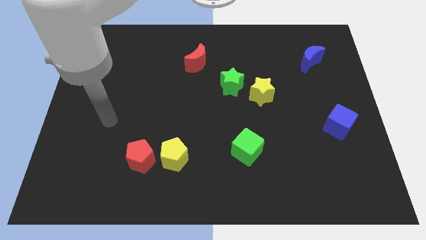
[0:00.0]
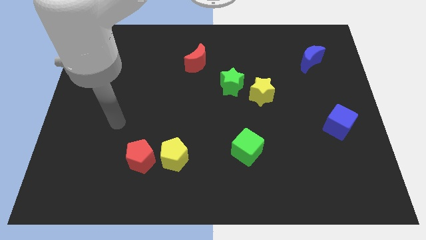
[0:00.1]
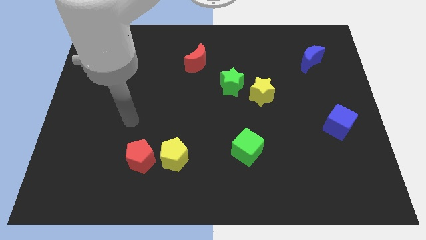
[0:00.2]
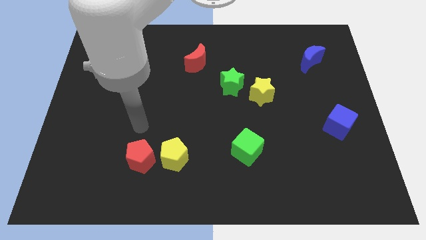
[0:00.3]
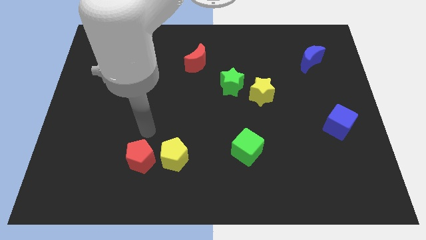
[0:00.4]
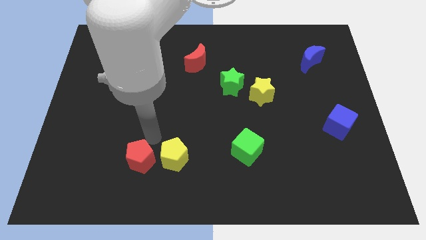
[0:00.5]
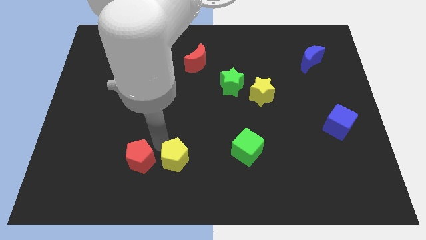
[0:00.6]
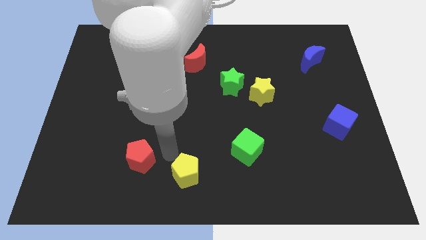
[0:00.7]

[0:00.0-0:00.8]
move the red pentagon away from the yellow pentagon

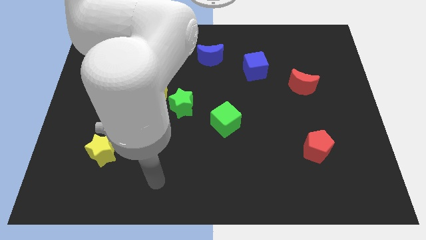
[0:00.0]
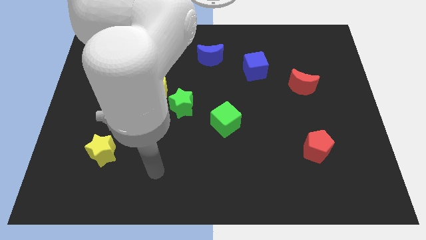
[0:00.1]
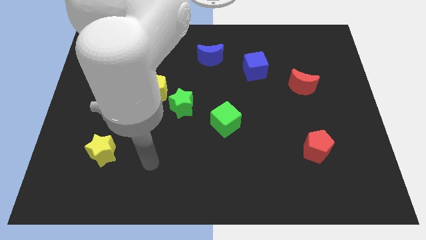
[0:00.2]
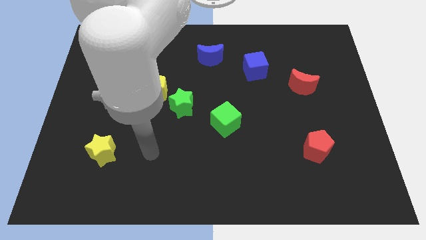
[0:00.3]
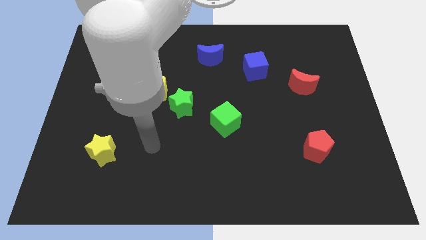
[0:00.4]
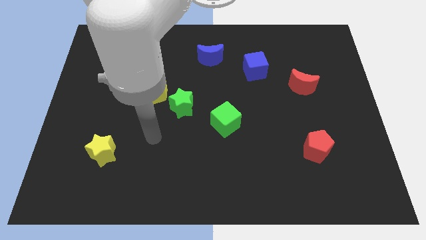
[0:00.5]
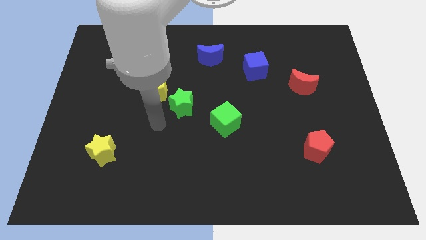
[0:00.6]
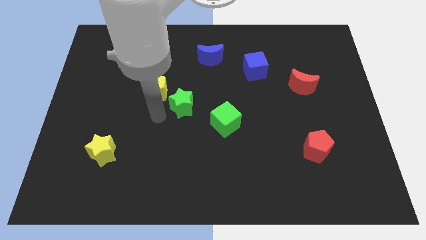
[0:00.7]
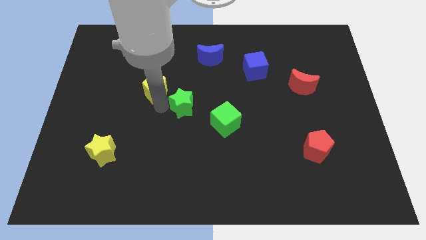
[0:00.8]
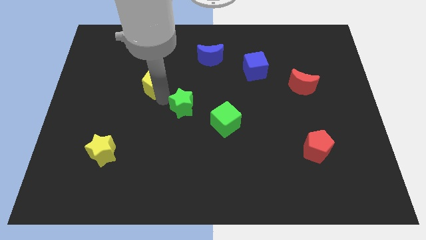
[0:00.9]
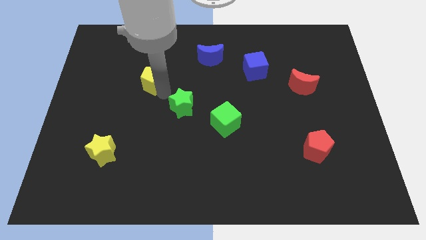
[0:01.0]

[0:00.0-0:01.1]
pull the green star apart from the yellow pentagon

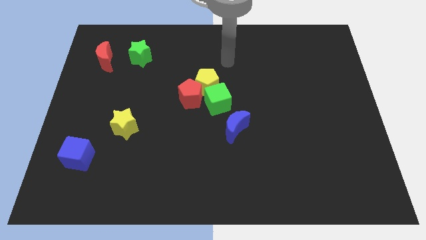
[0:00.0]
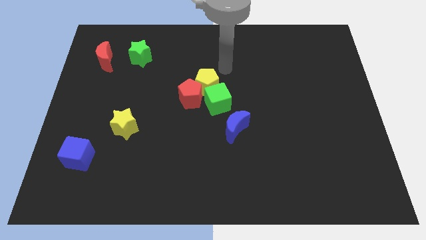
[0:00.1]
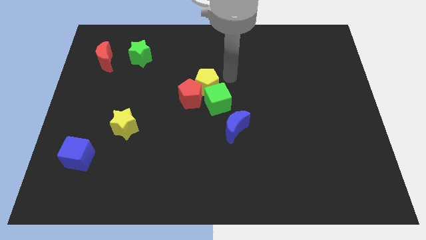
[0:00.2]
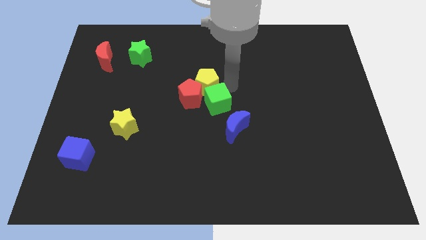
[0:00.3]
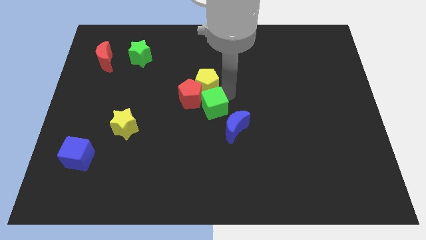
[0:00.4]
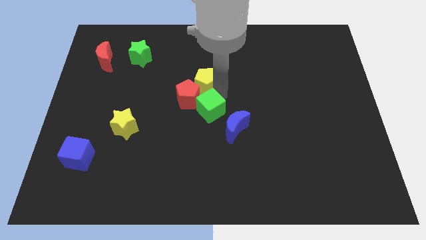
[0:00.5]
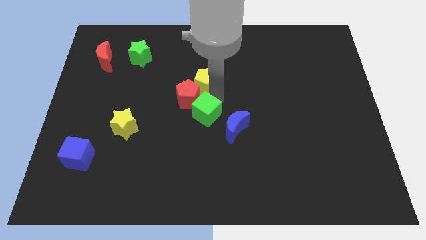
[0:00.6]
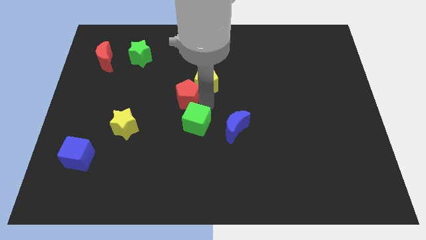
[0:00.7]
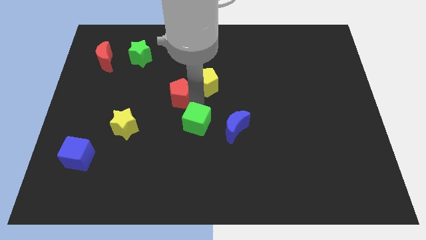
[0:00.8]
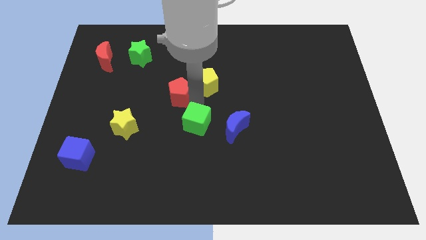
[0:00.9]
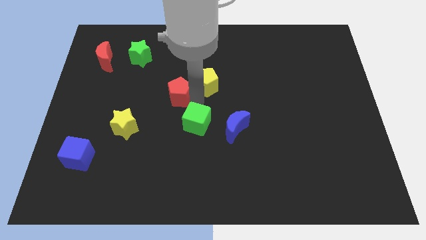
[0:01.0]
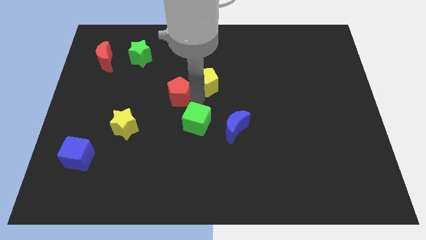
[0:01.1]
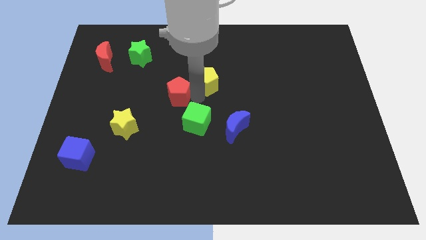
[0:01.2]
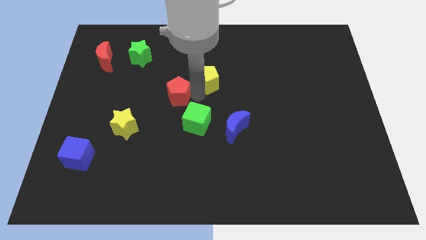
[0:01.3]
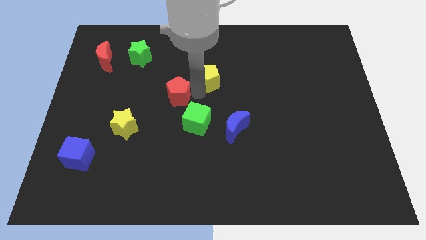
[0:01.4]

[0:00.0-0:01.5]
separate the yellow pentagon from the red pentagon and green cube

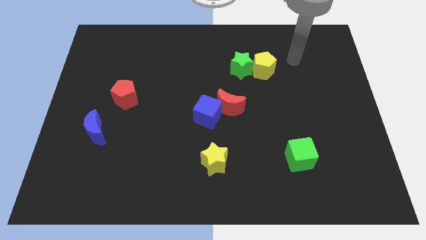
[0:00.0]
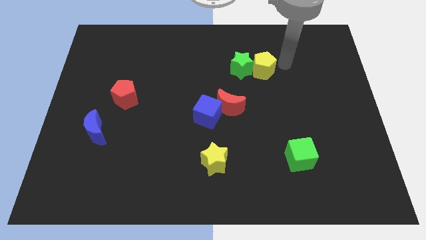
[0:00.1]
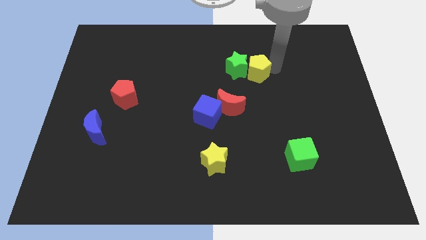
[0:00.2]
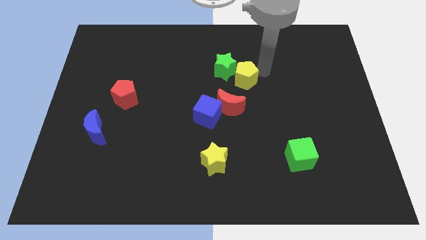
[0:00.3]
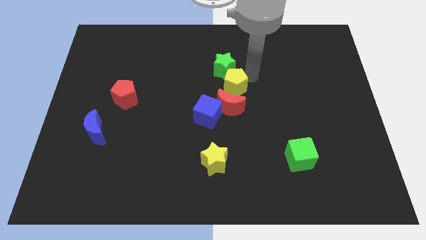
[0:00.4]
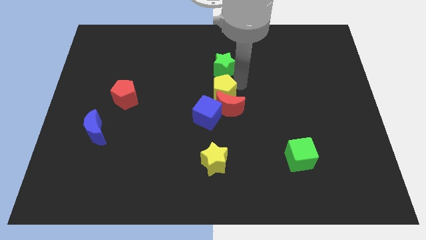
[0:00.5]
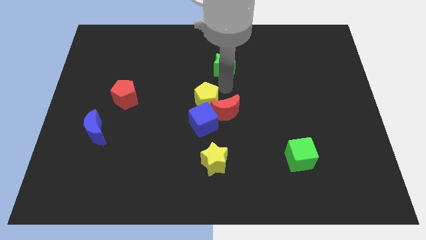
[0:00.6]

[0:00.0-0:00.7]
move the green star away from the yellow pentagon

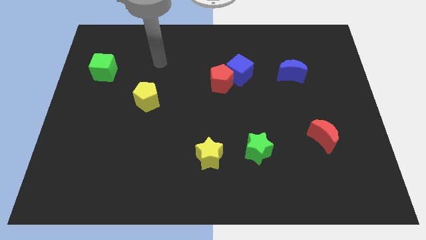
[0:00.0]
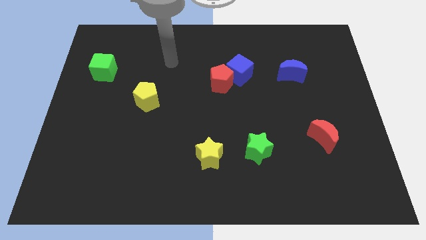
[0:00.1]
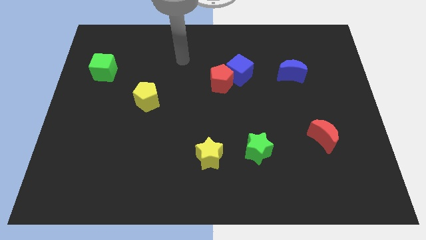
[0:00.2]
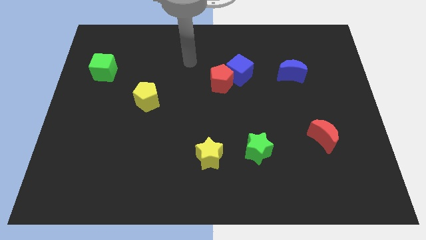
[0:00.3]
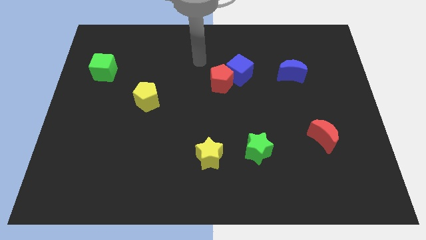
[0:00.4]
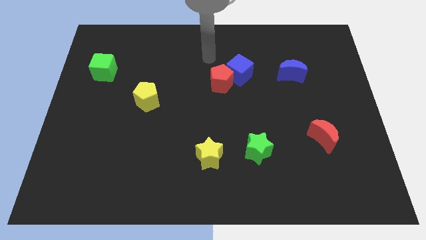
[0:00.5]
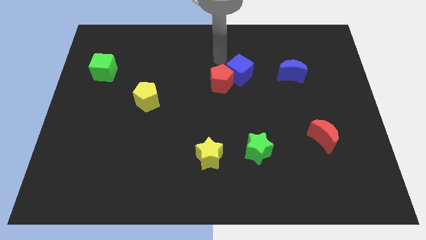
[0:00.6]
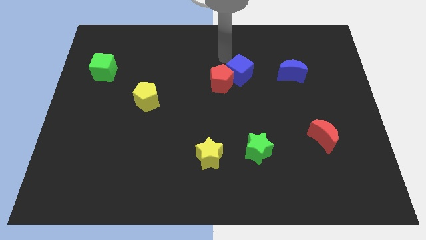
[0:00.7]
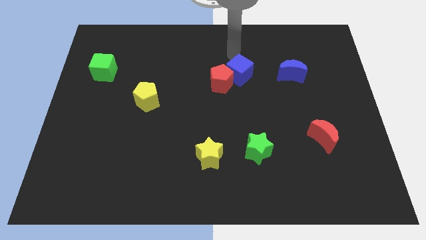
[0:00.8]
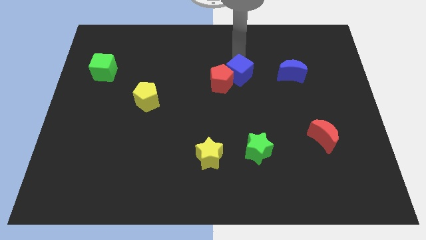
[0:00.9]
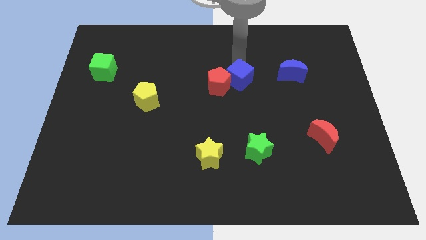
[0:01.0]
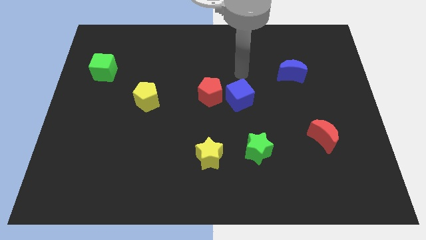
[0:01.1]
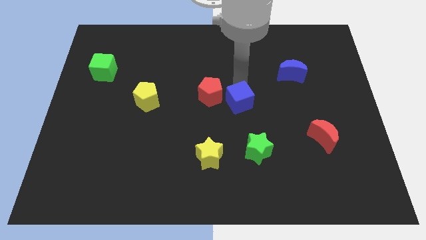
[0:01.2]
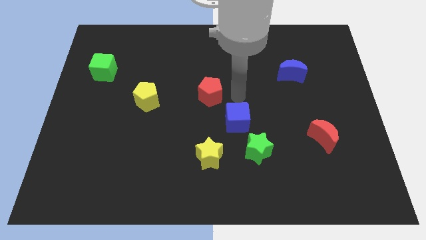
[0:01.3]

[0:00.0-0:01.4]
move the red pentagon away from the blue cube

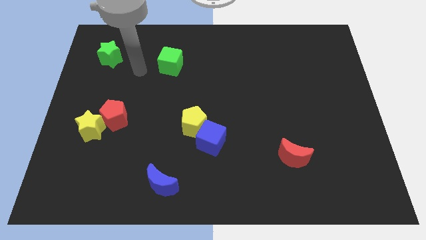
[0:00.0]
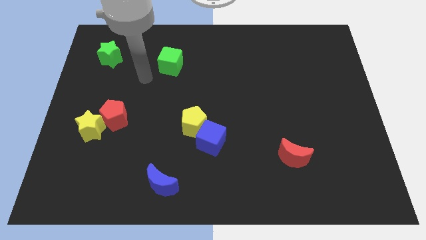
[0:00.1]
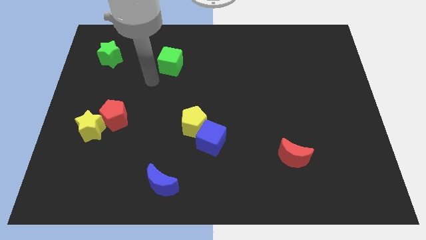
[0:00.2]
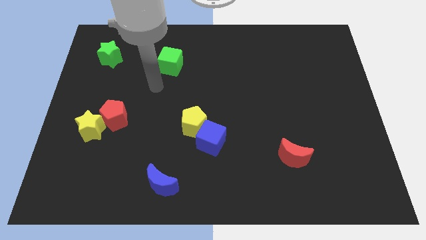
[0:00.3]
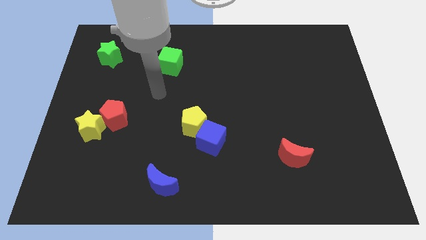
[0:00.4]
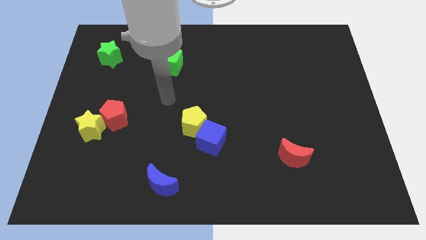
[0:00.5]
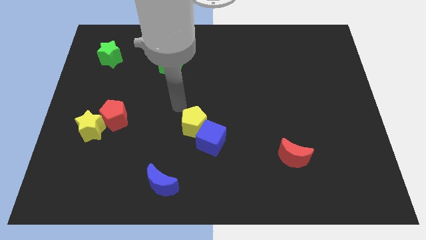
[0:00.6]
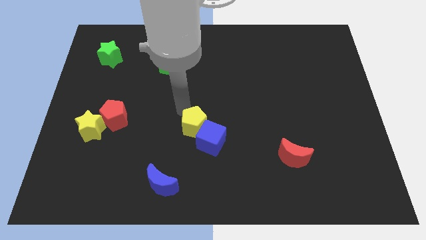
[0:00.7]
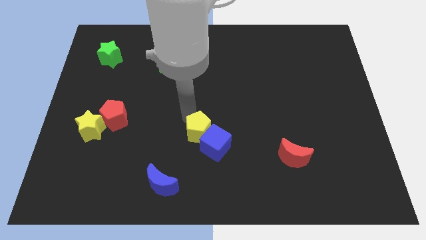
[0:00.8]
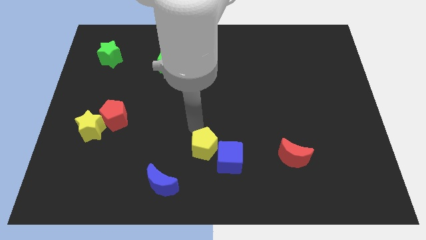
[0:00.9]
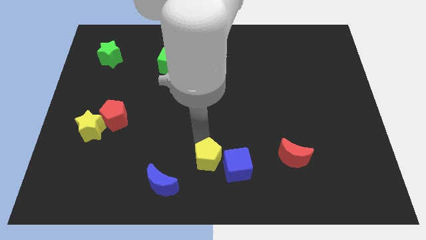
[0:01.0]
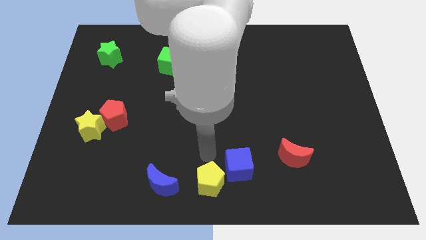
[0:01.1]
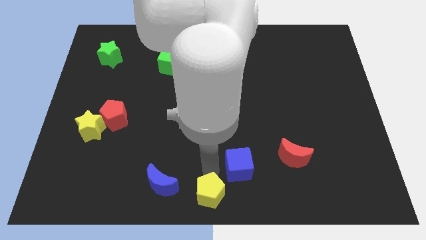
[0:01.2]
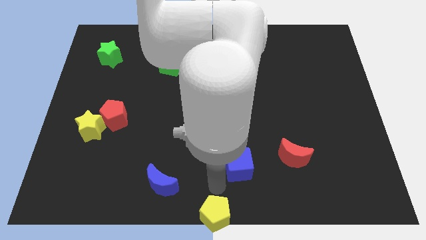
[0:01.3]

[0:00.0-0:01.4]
separate the blue cube from the yellow pentagon

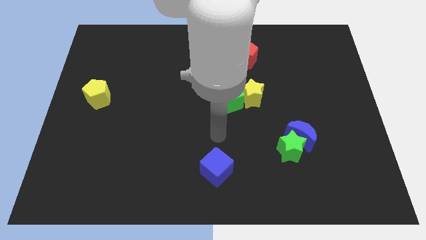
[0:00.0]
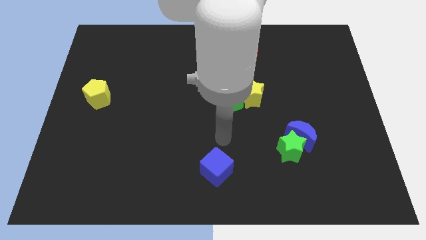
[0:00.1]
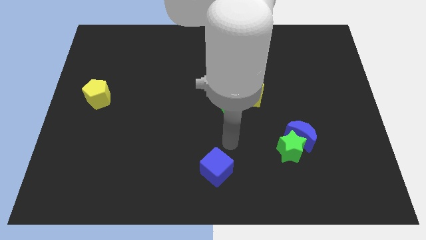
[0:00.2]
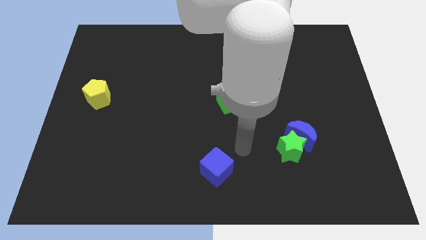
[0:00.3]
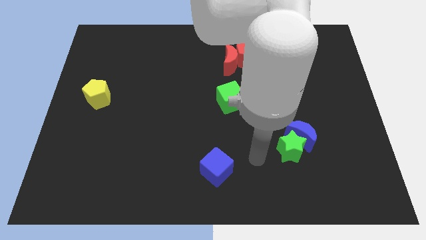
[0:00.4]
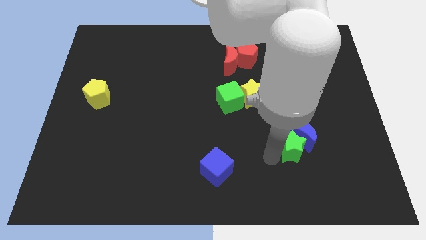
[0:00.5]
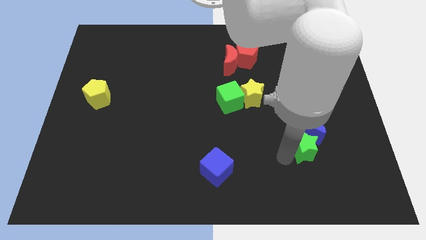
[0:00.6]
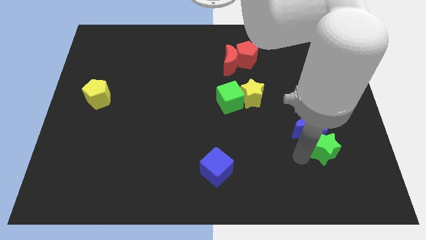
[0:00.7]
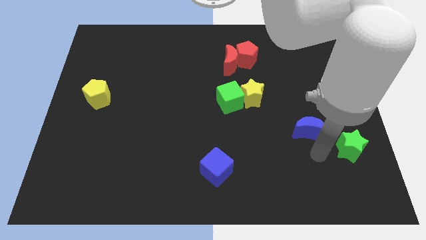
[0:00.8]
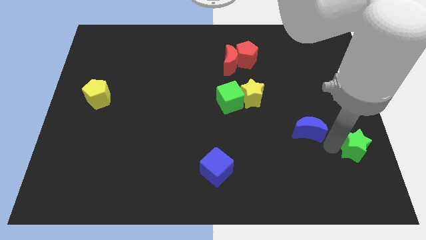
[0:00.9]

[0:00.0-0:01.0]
pull the blue moon apart from the green star

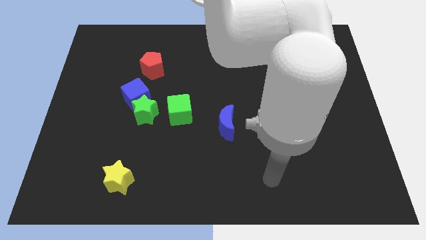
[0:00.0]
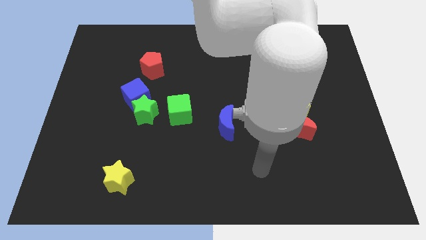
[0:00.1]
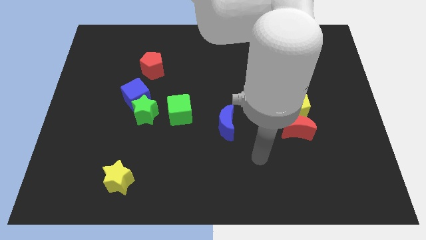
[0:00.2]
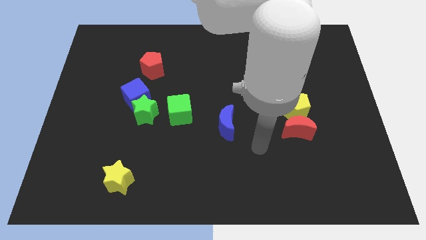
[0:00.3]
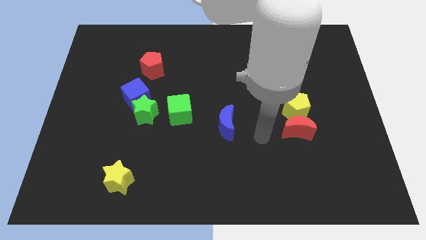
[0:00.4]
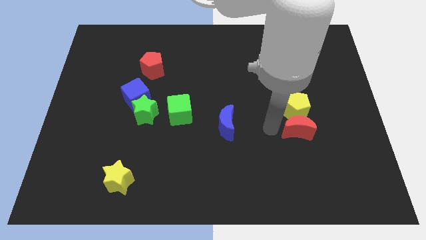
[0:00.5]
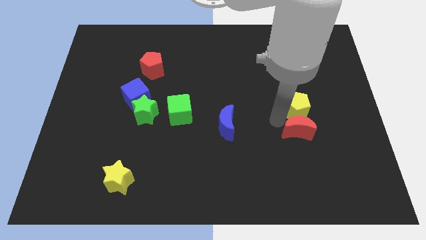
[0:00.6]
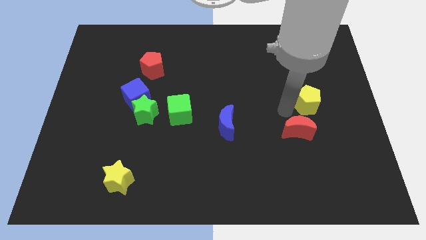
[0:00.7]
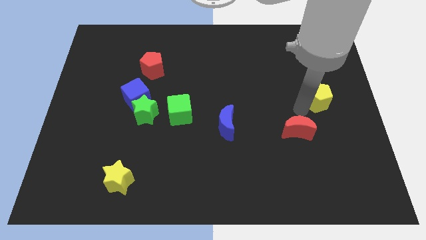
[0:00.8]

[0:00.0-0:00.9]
move the red moon away from the yellow pentagon

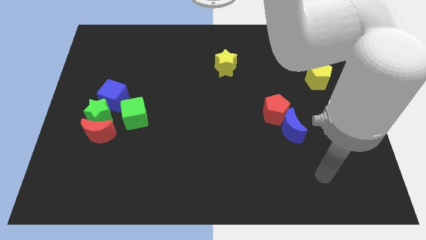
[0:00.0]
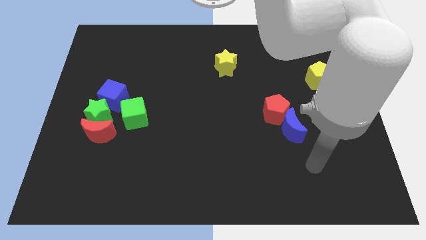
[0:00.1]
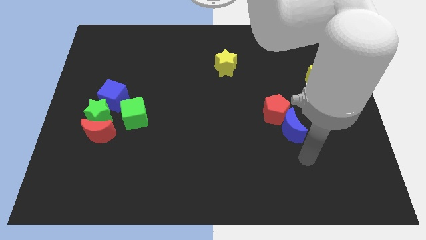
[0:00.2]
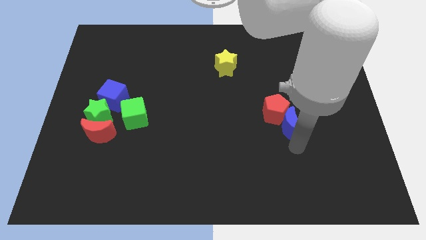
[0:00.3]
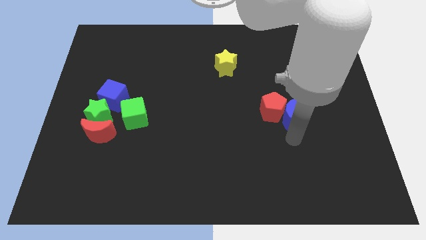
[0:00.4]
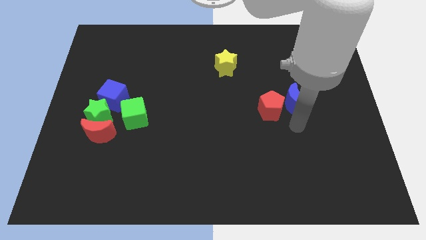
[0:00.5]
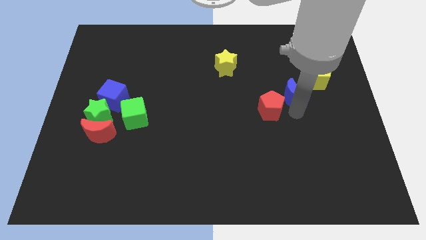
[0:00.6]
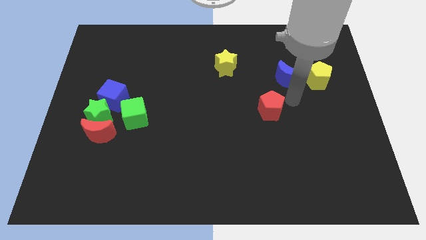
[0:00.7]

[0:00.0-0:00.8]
move the red pentagon away from the blue moon
